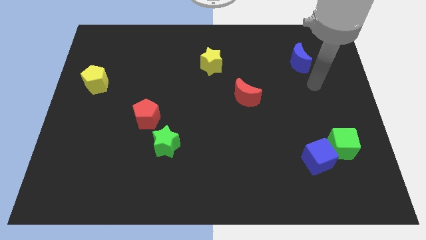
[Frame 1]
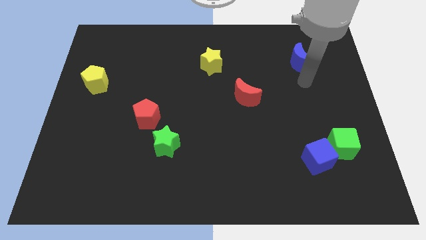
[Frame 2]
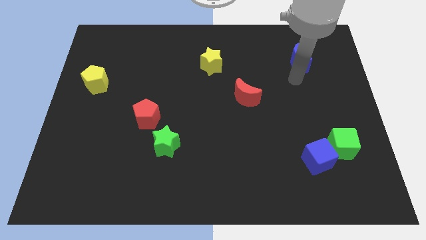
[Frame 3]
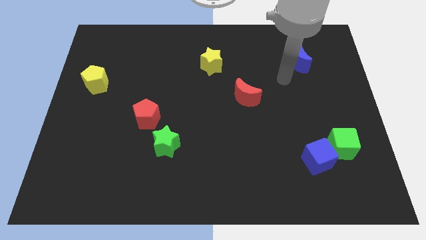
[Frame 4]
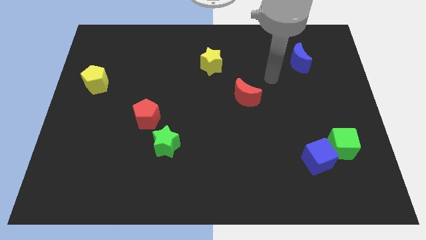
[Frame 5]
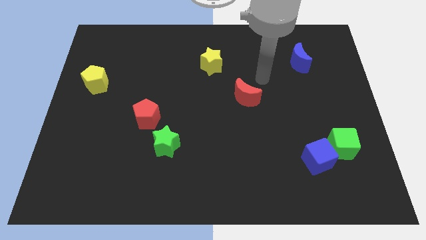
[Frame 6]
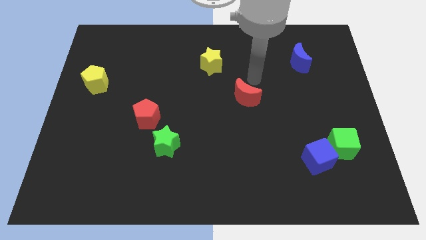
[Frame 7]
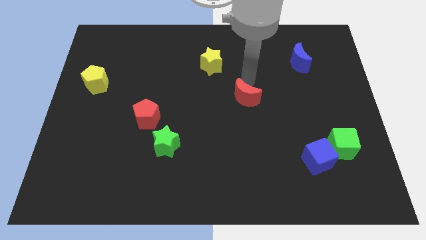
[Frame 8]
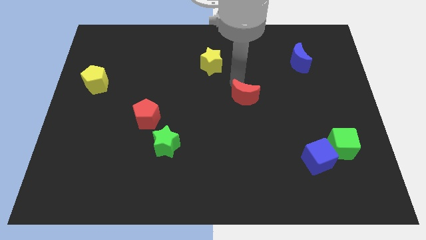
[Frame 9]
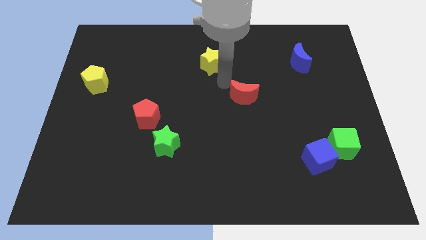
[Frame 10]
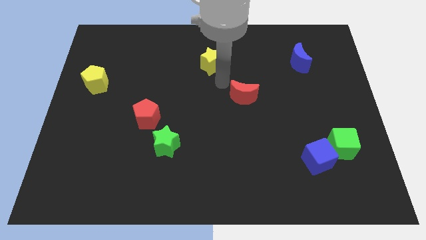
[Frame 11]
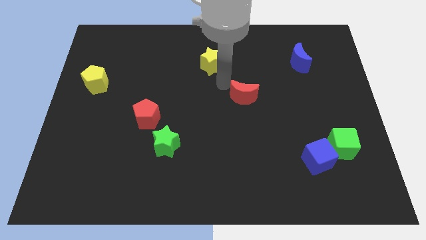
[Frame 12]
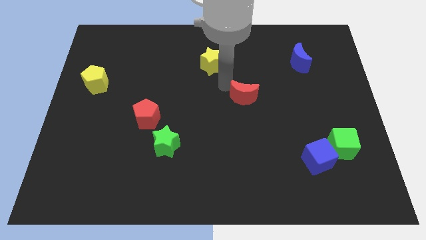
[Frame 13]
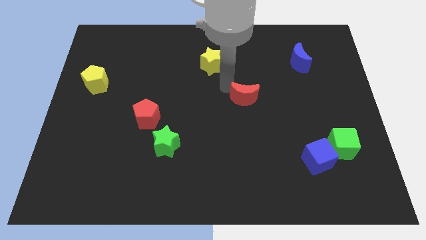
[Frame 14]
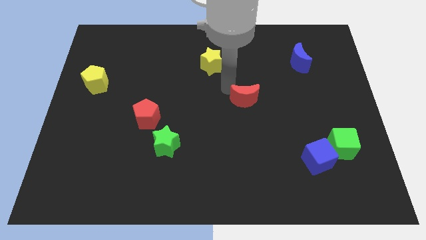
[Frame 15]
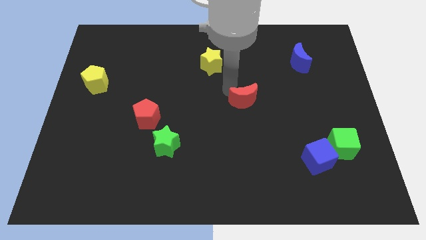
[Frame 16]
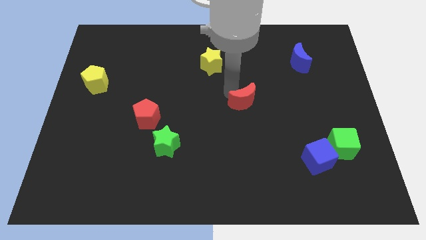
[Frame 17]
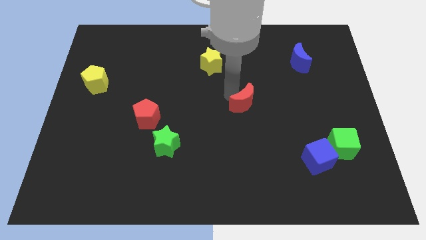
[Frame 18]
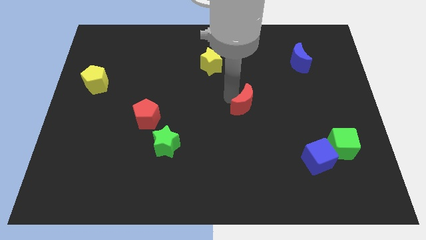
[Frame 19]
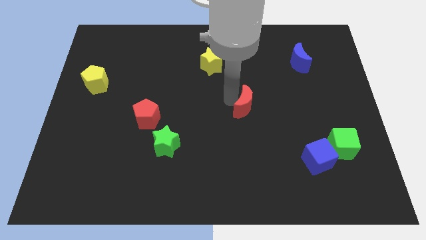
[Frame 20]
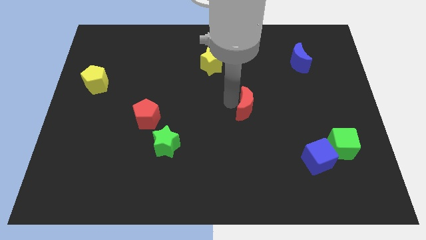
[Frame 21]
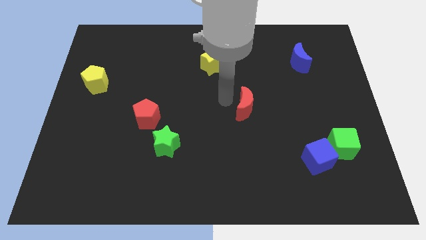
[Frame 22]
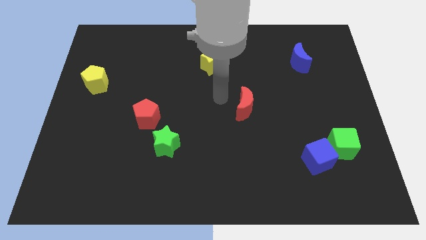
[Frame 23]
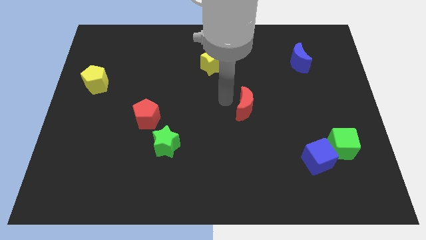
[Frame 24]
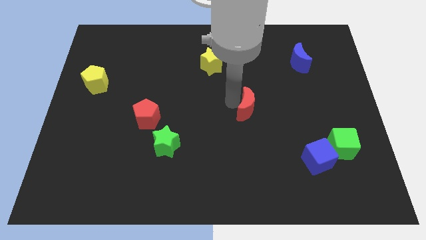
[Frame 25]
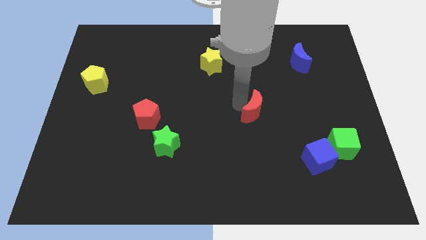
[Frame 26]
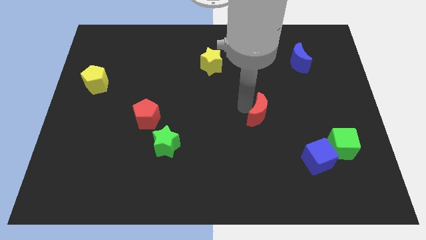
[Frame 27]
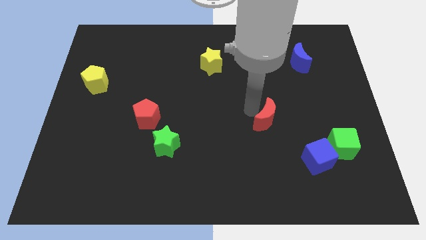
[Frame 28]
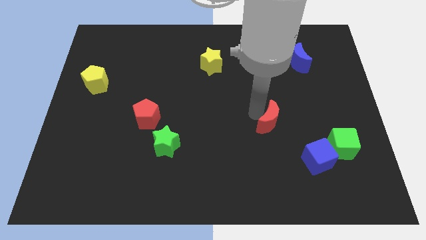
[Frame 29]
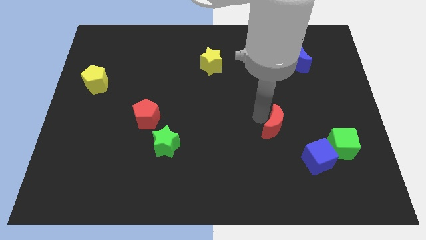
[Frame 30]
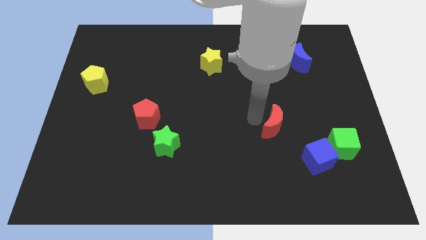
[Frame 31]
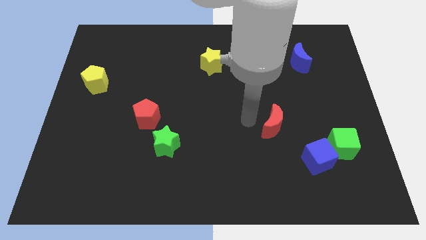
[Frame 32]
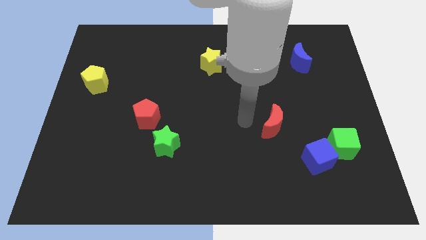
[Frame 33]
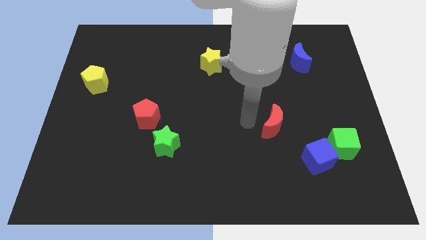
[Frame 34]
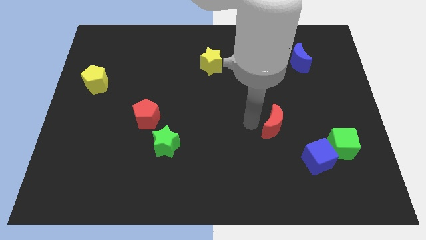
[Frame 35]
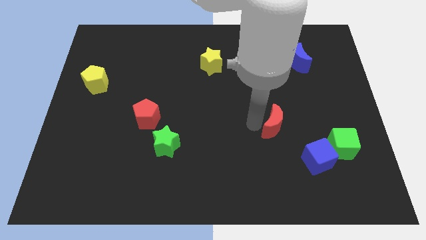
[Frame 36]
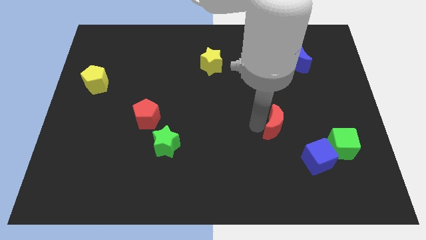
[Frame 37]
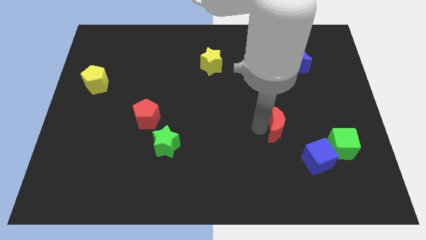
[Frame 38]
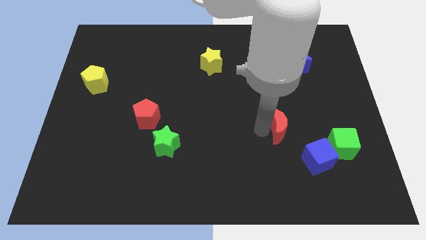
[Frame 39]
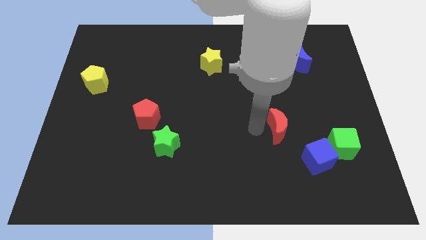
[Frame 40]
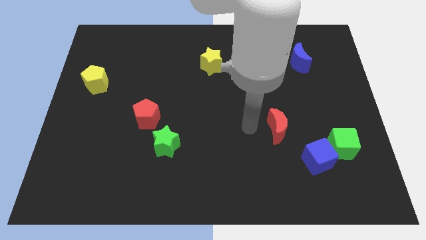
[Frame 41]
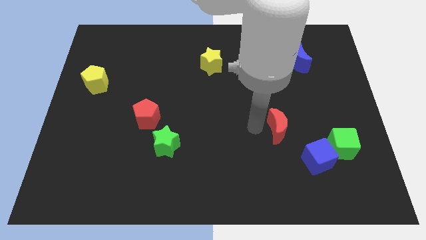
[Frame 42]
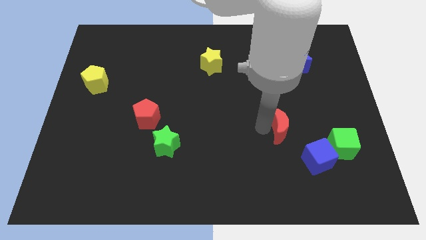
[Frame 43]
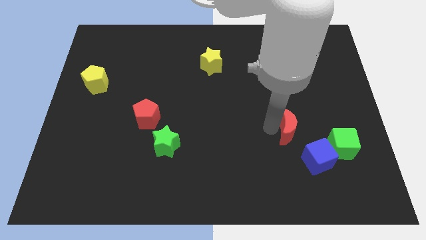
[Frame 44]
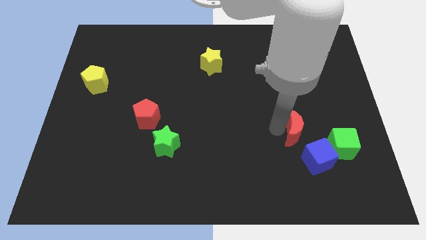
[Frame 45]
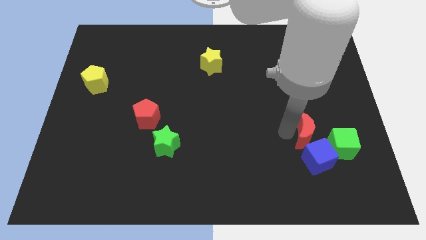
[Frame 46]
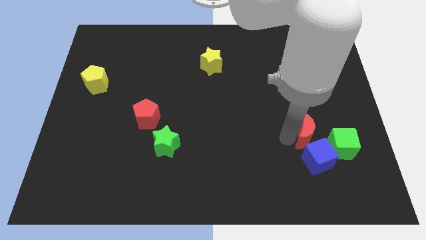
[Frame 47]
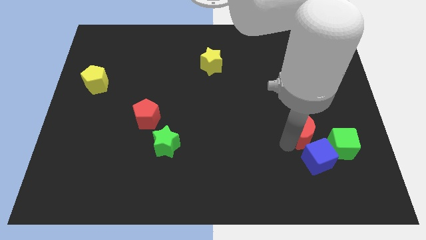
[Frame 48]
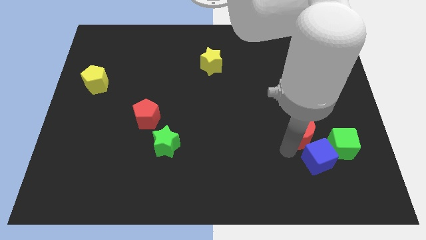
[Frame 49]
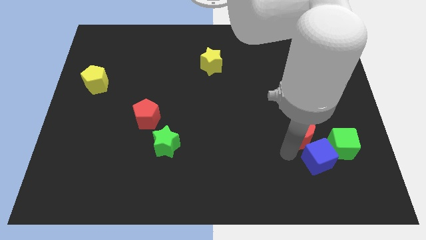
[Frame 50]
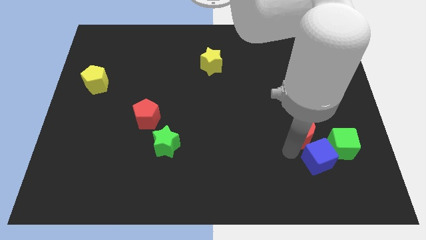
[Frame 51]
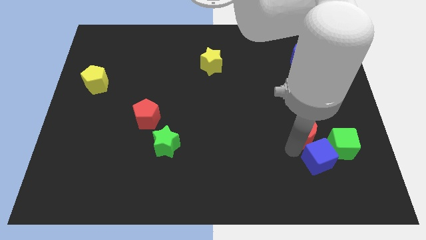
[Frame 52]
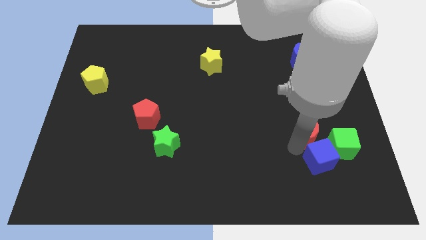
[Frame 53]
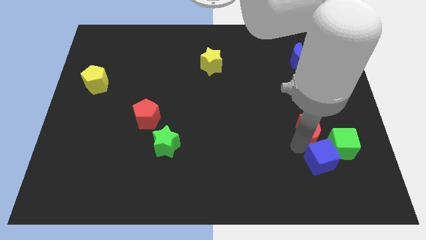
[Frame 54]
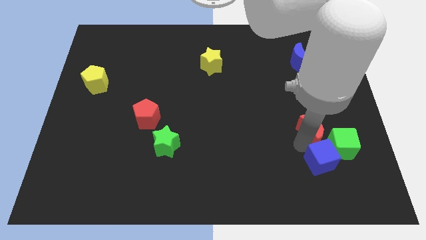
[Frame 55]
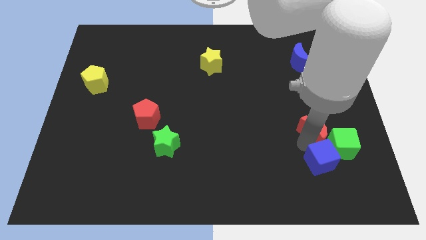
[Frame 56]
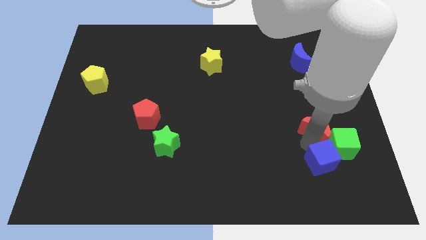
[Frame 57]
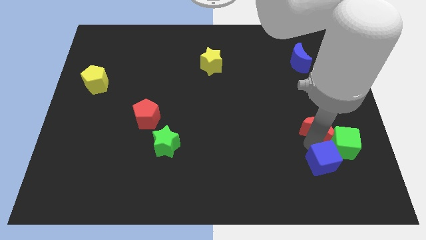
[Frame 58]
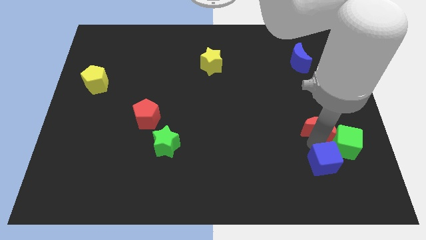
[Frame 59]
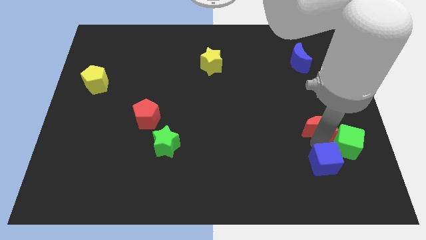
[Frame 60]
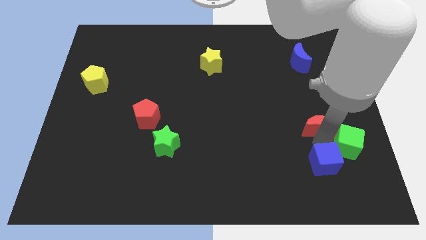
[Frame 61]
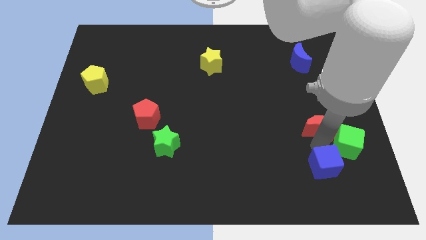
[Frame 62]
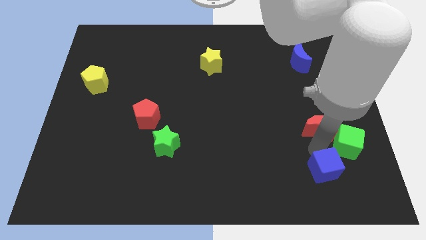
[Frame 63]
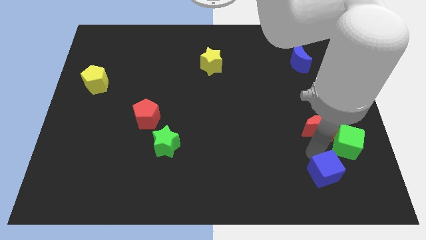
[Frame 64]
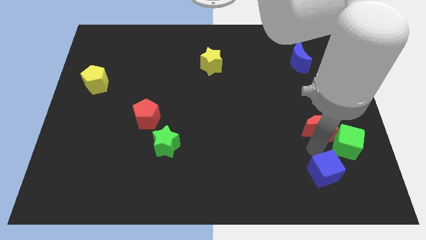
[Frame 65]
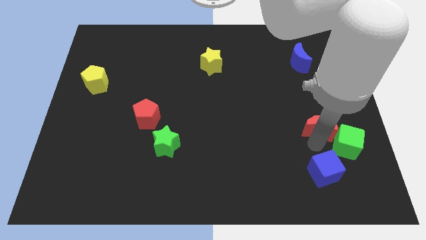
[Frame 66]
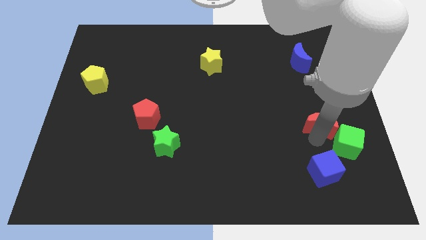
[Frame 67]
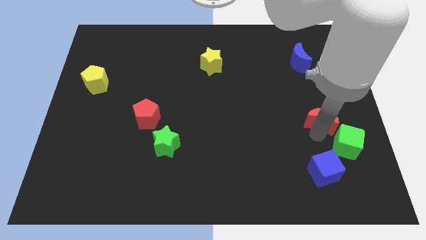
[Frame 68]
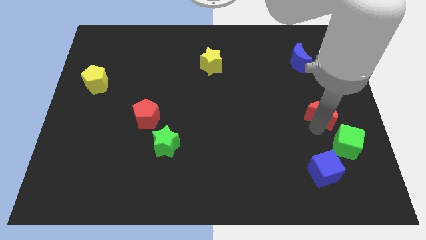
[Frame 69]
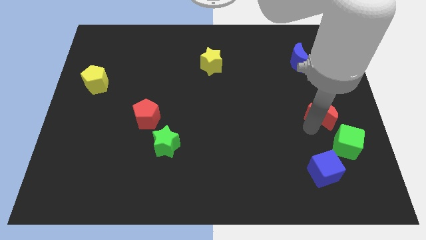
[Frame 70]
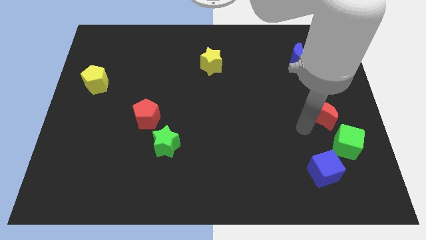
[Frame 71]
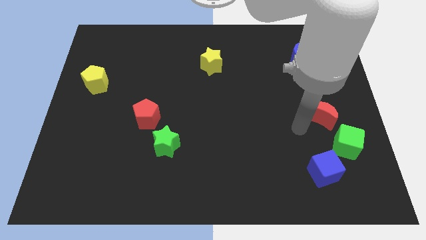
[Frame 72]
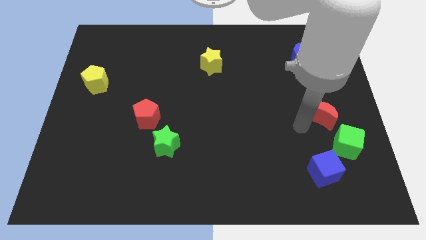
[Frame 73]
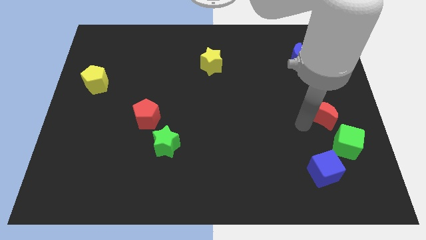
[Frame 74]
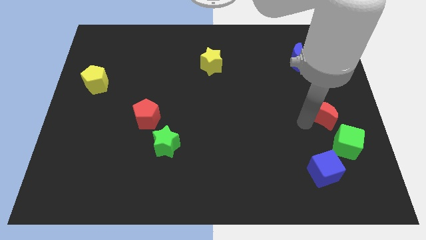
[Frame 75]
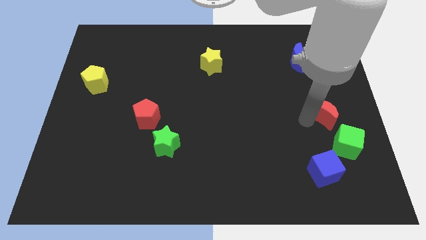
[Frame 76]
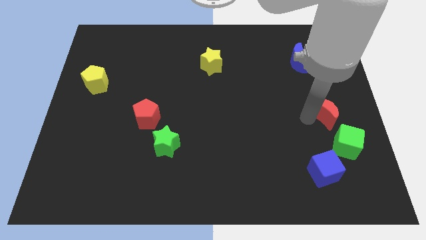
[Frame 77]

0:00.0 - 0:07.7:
put the red moon to the right side of the board

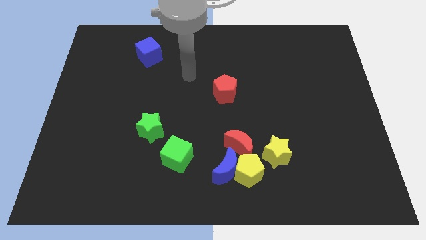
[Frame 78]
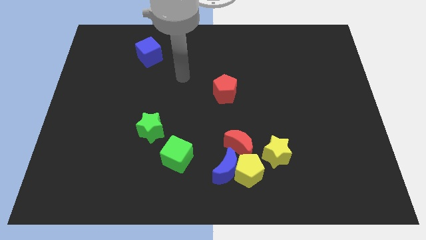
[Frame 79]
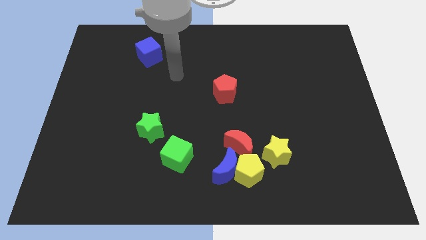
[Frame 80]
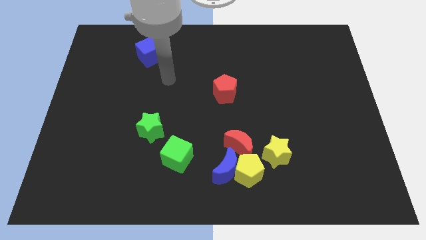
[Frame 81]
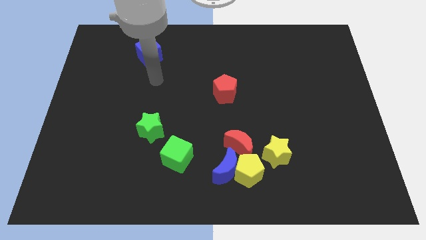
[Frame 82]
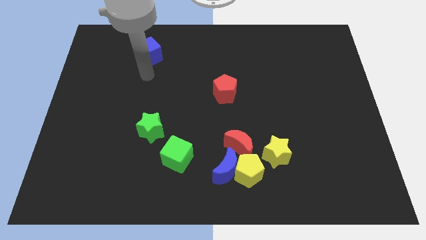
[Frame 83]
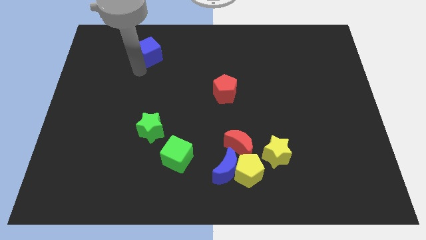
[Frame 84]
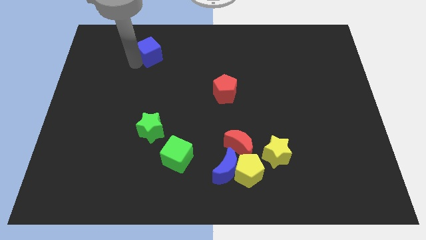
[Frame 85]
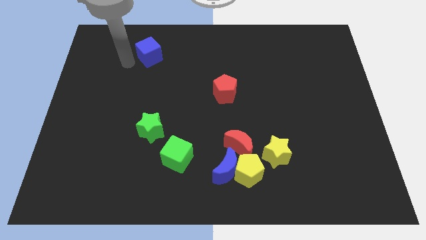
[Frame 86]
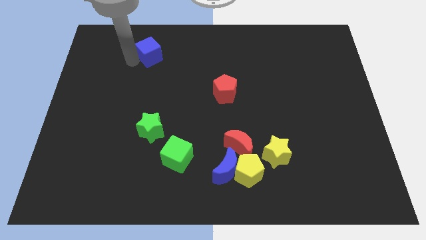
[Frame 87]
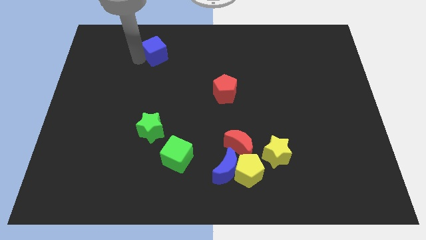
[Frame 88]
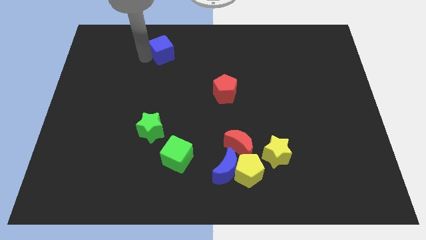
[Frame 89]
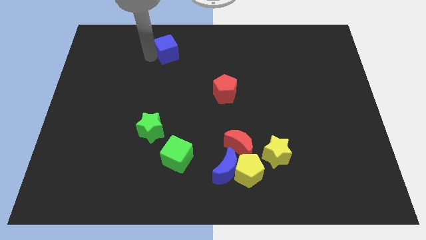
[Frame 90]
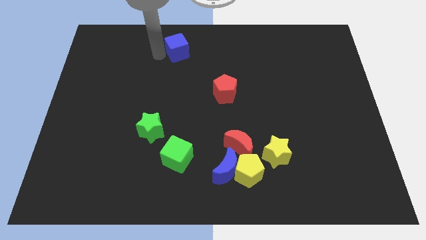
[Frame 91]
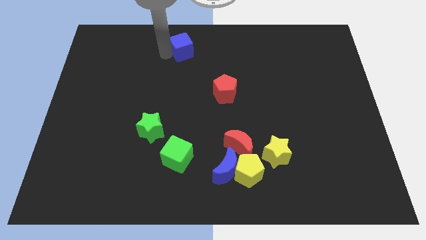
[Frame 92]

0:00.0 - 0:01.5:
push the blue cube to the top
